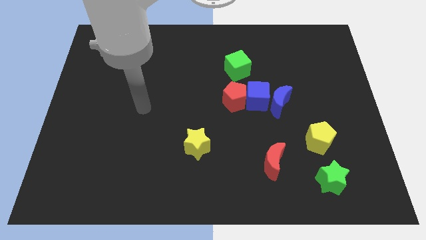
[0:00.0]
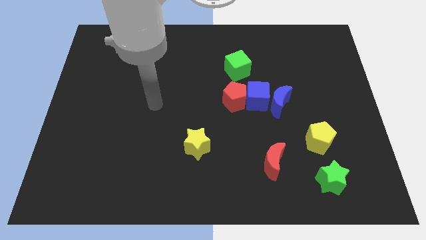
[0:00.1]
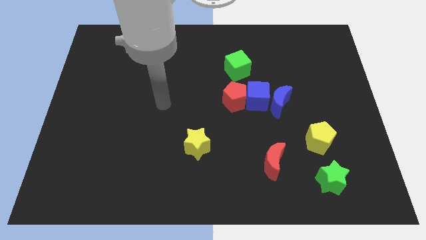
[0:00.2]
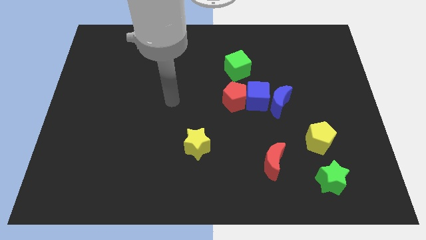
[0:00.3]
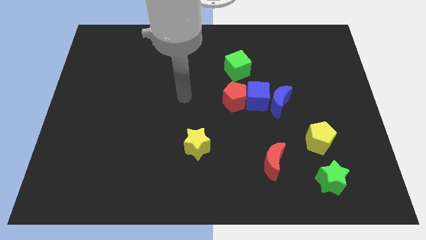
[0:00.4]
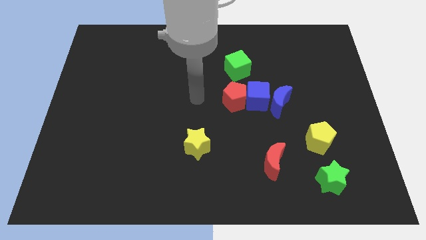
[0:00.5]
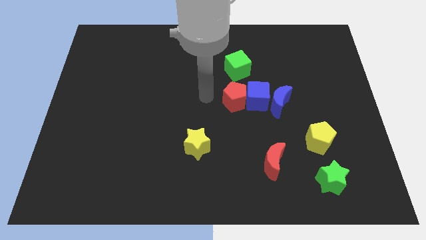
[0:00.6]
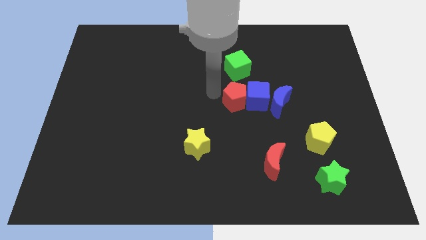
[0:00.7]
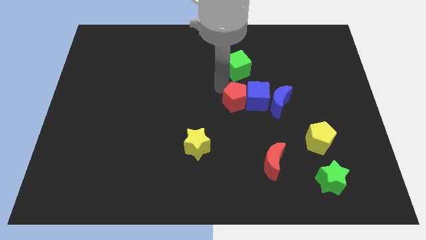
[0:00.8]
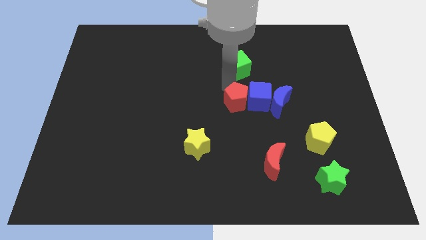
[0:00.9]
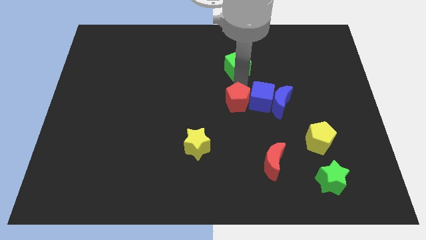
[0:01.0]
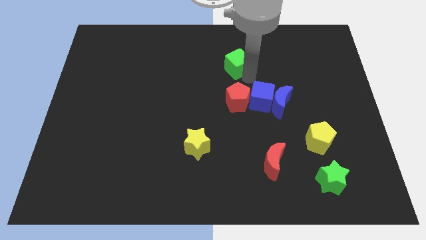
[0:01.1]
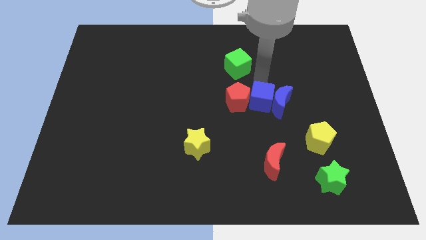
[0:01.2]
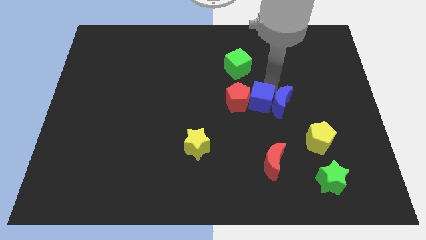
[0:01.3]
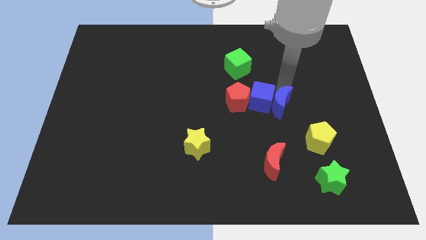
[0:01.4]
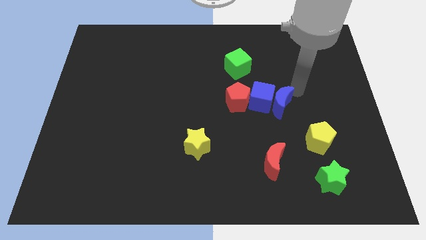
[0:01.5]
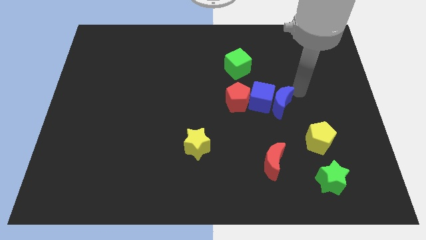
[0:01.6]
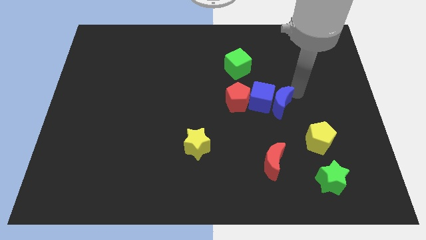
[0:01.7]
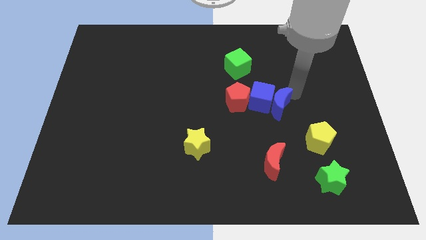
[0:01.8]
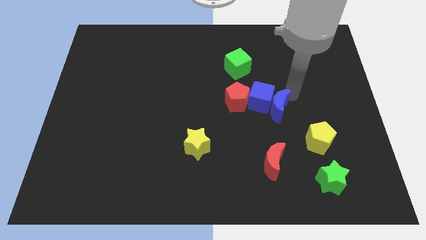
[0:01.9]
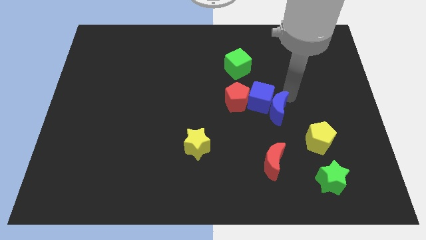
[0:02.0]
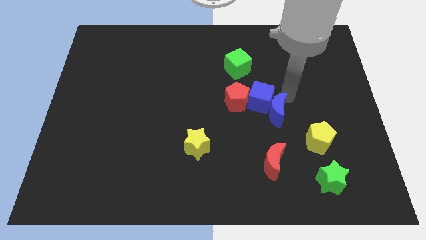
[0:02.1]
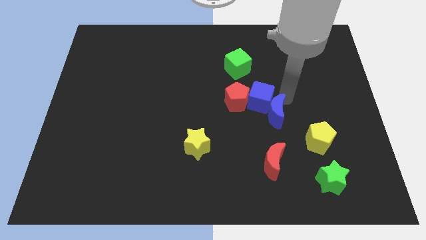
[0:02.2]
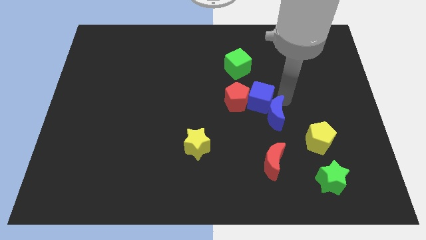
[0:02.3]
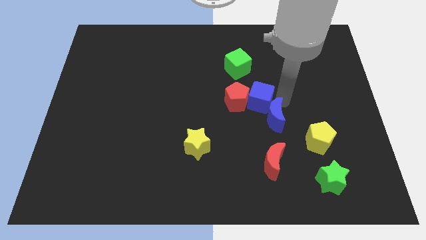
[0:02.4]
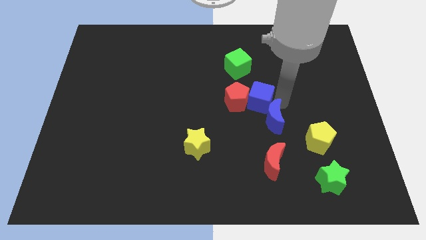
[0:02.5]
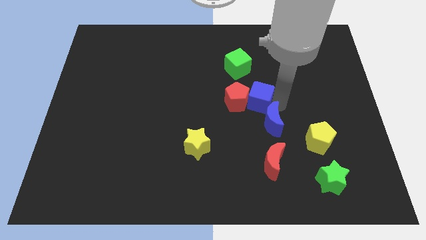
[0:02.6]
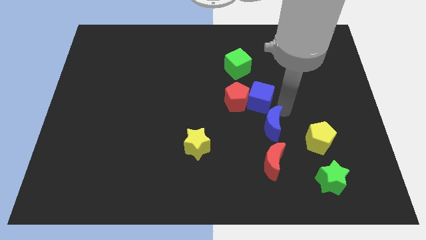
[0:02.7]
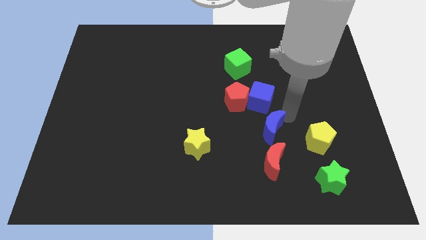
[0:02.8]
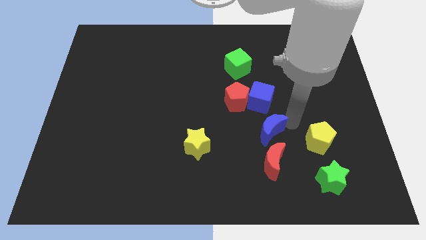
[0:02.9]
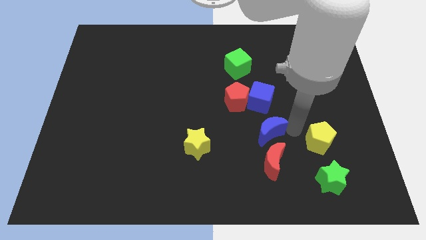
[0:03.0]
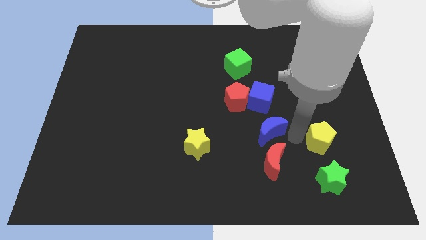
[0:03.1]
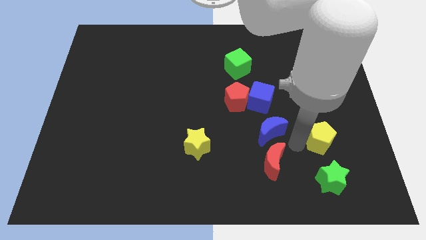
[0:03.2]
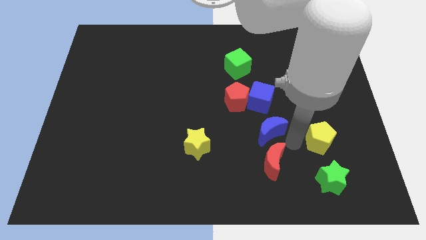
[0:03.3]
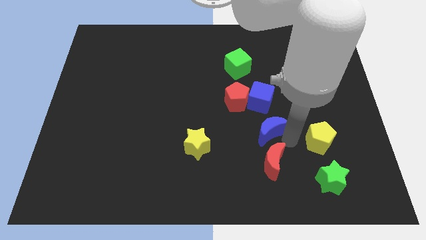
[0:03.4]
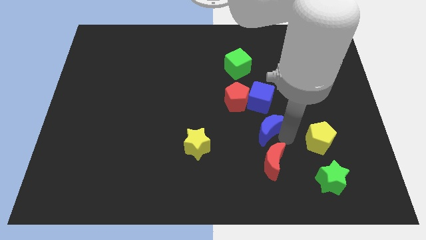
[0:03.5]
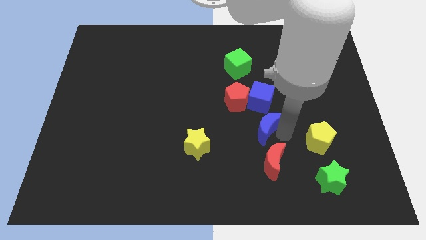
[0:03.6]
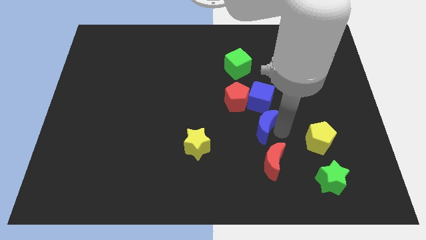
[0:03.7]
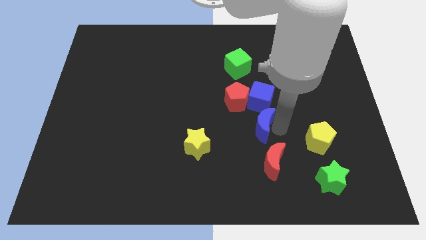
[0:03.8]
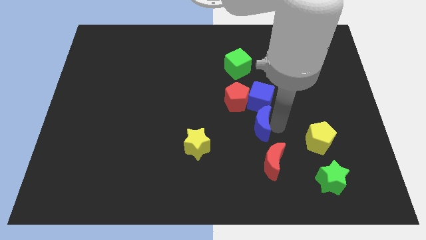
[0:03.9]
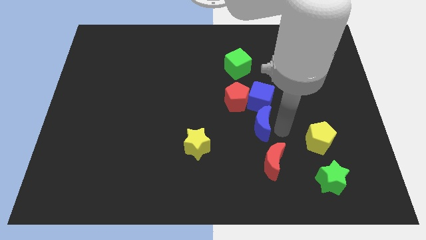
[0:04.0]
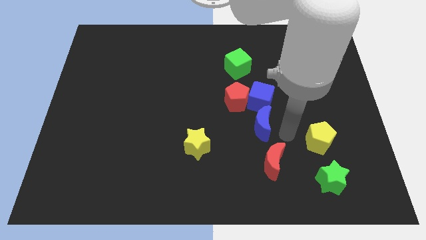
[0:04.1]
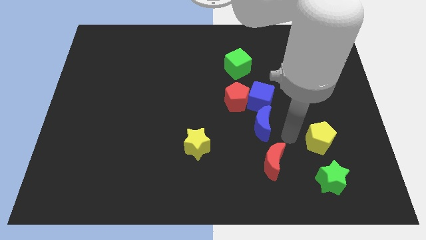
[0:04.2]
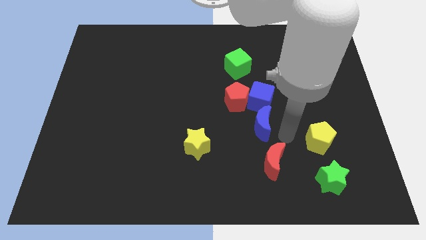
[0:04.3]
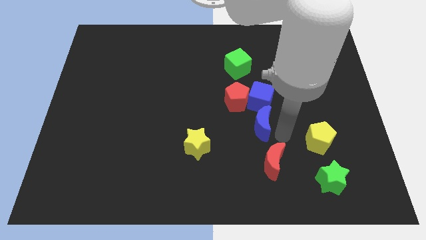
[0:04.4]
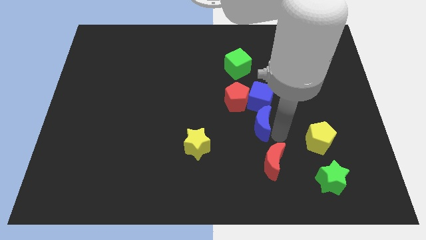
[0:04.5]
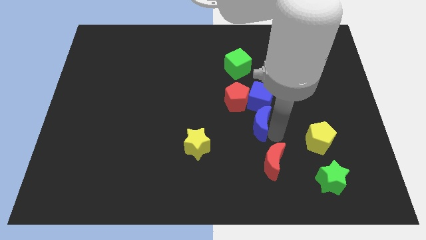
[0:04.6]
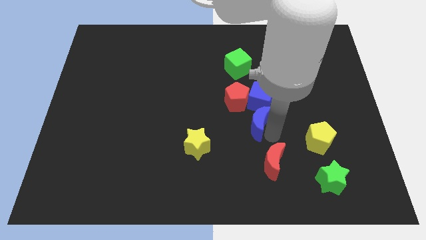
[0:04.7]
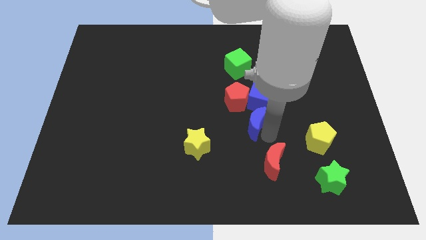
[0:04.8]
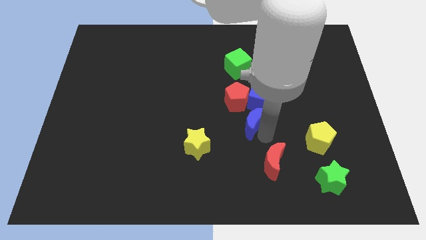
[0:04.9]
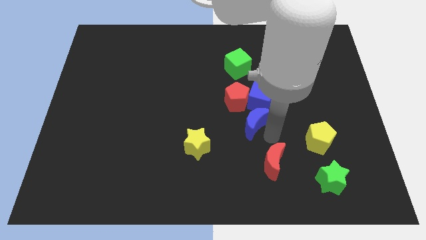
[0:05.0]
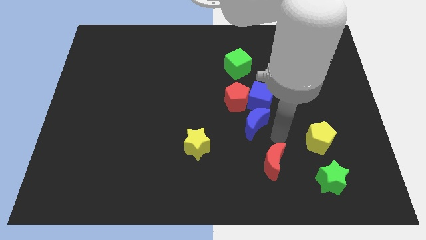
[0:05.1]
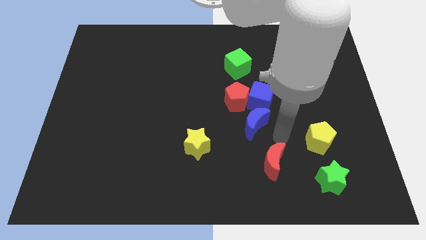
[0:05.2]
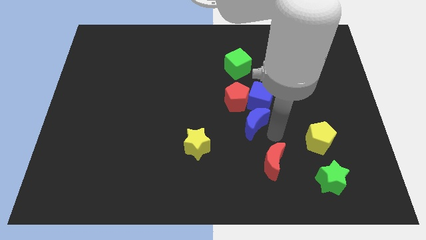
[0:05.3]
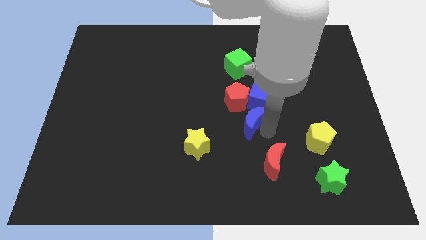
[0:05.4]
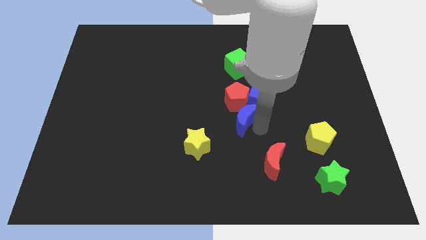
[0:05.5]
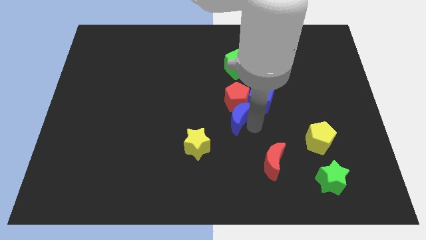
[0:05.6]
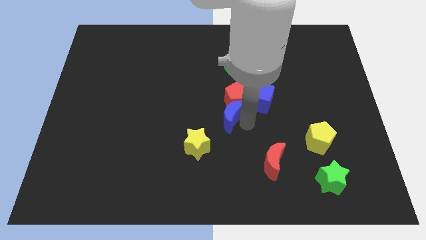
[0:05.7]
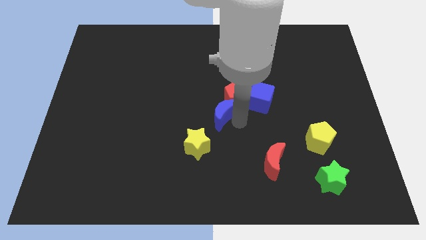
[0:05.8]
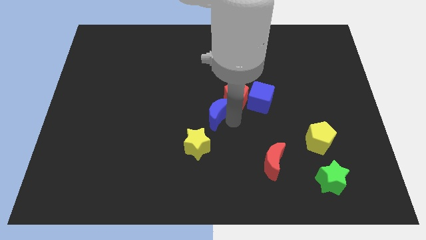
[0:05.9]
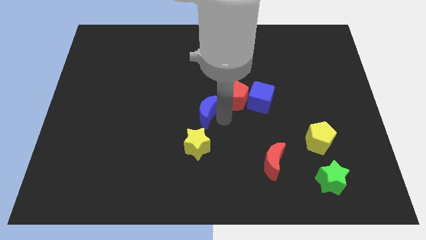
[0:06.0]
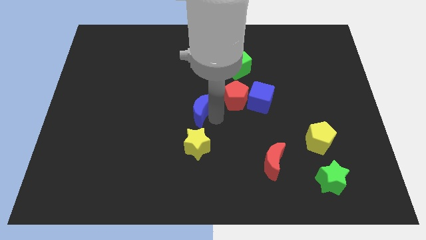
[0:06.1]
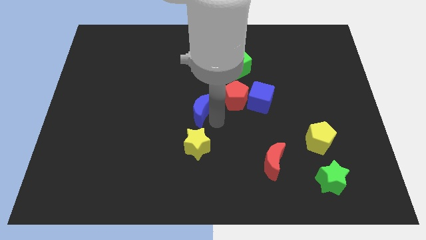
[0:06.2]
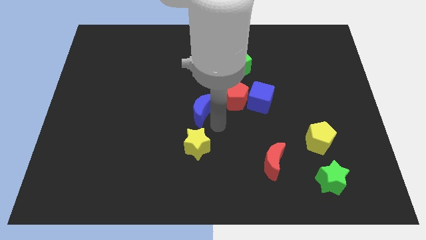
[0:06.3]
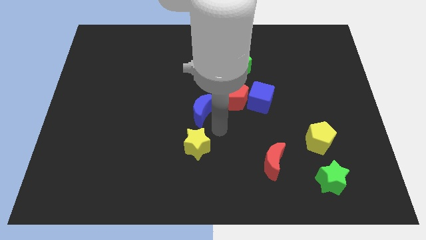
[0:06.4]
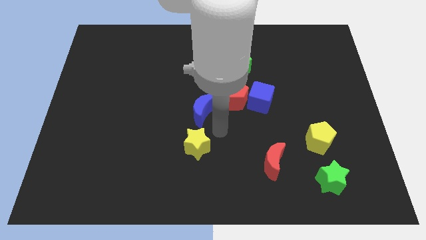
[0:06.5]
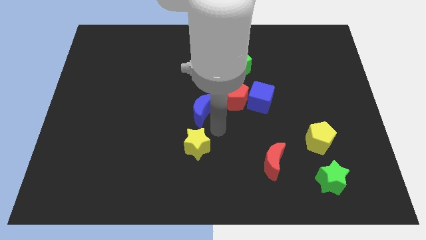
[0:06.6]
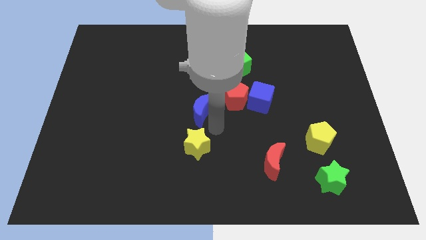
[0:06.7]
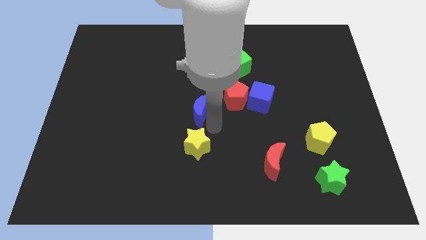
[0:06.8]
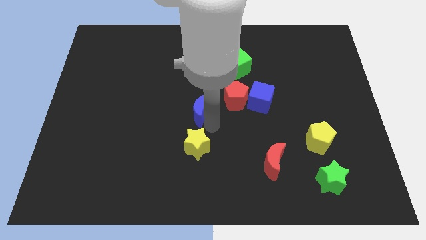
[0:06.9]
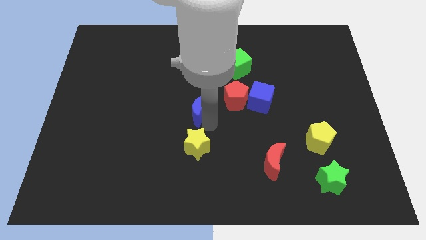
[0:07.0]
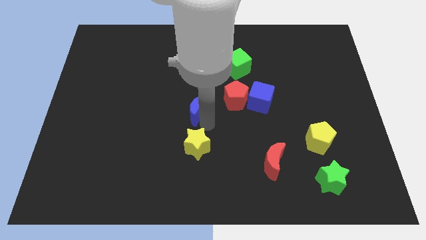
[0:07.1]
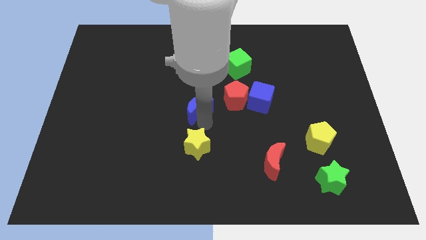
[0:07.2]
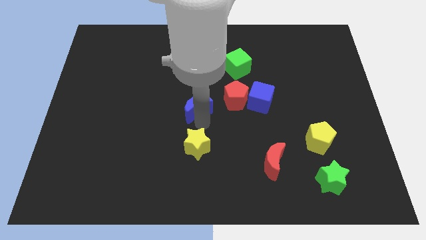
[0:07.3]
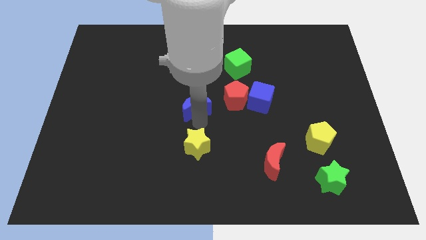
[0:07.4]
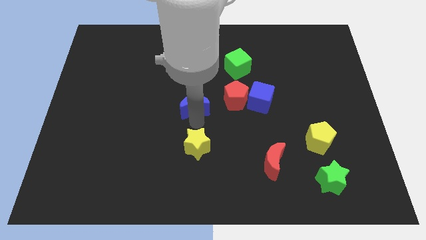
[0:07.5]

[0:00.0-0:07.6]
move the blue moon left

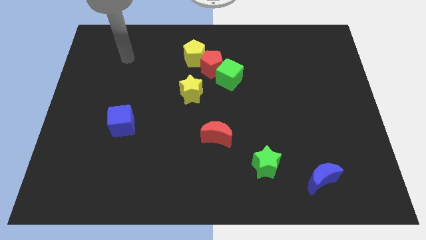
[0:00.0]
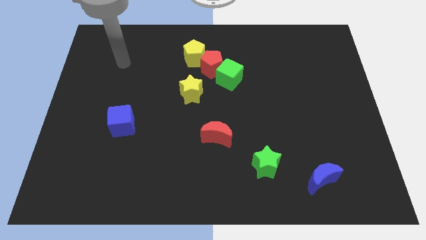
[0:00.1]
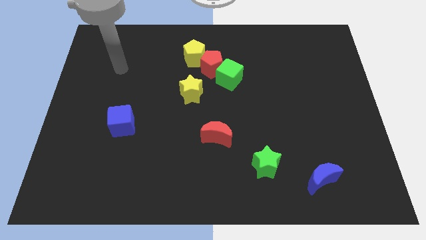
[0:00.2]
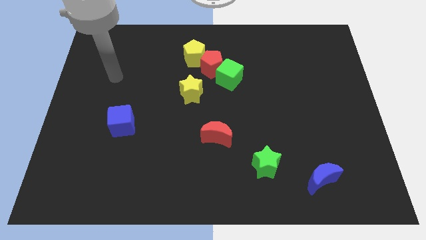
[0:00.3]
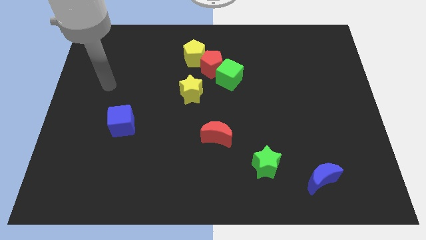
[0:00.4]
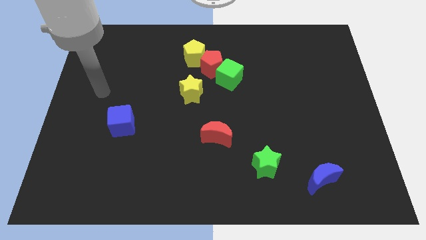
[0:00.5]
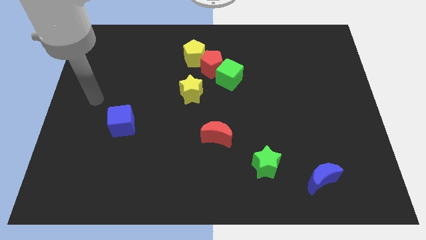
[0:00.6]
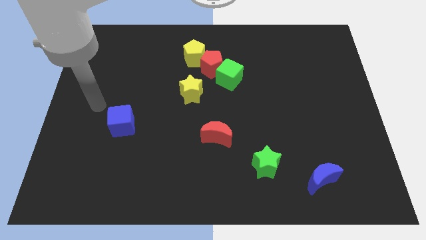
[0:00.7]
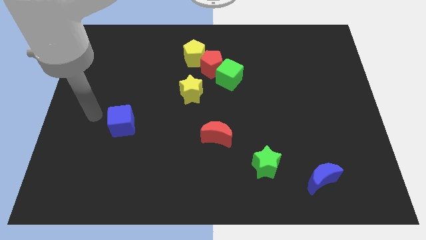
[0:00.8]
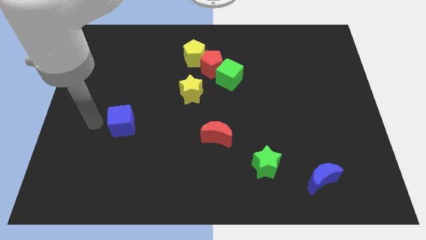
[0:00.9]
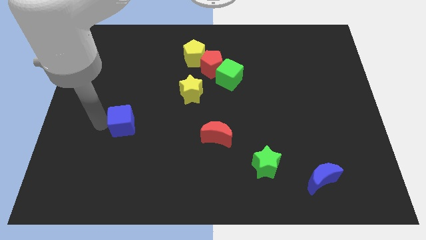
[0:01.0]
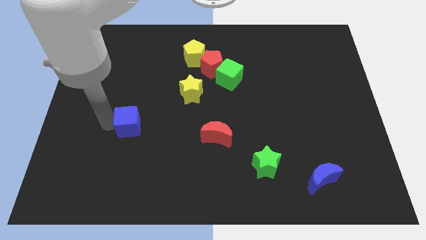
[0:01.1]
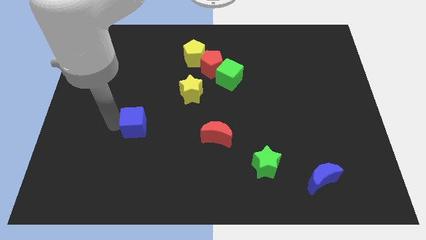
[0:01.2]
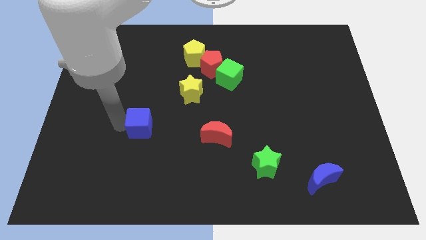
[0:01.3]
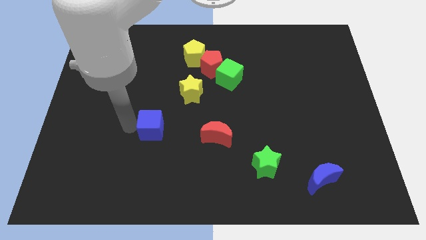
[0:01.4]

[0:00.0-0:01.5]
push the blue cube slightly right
